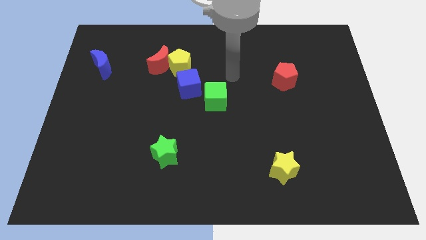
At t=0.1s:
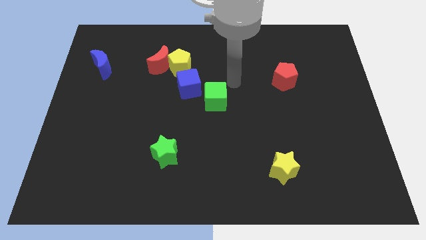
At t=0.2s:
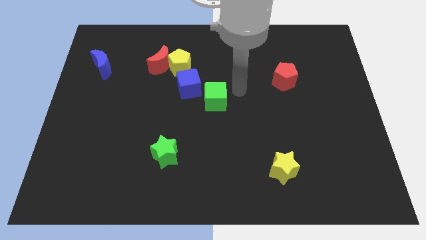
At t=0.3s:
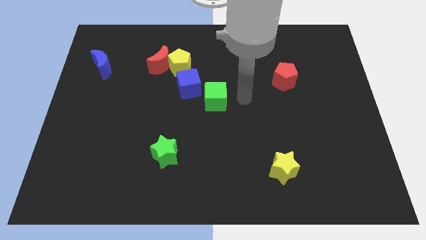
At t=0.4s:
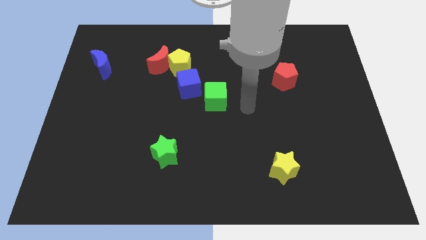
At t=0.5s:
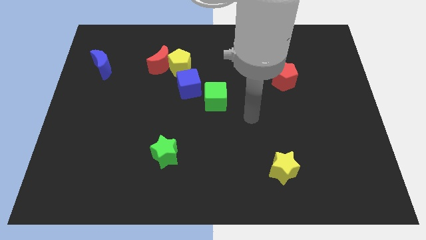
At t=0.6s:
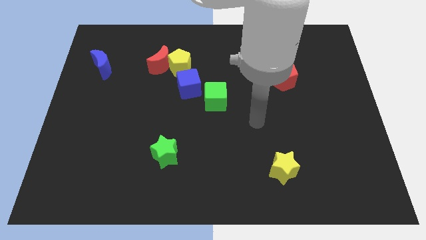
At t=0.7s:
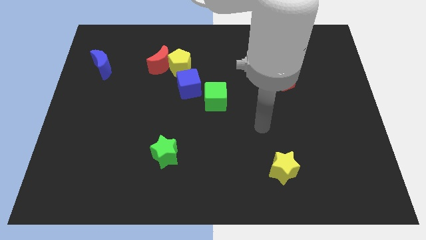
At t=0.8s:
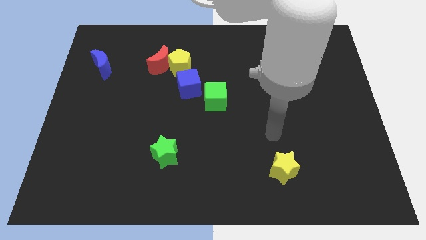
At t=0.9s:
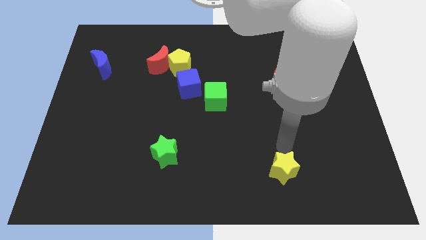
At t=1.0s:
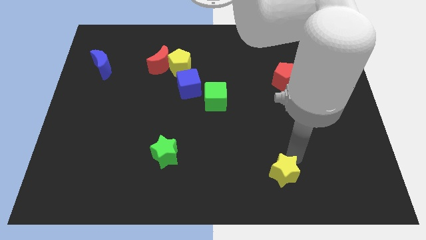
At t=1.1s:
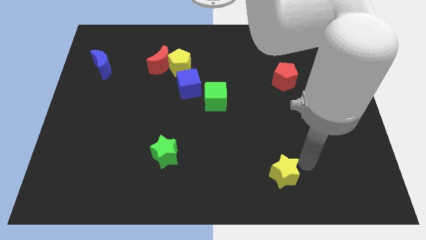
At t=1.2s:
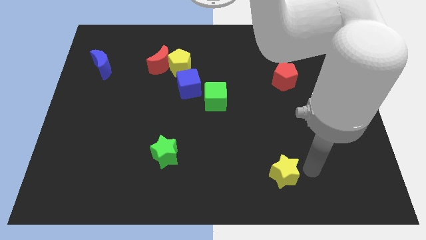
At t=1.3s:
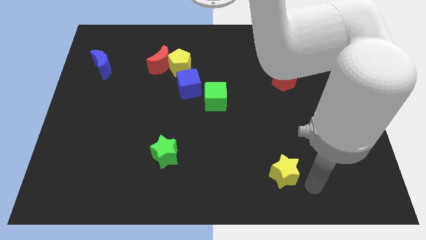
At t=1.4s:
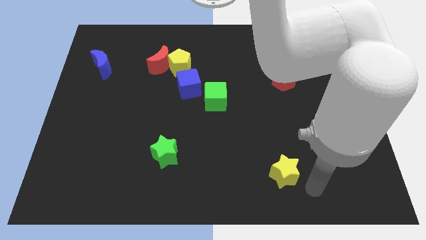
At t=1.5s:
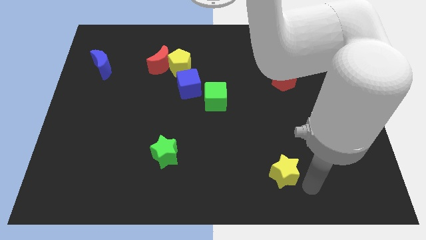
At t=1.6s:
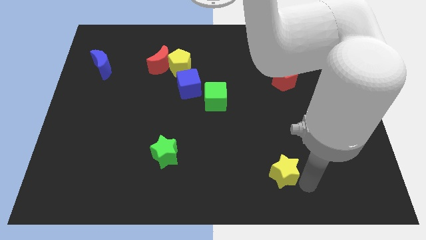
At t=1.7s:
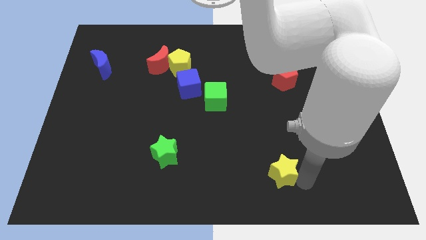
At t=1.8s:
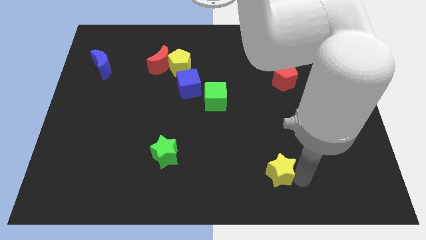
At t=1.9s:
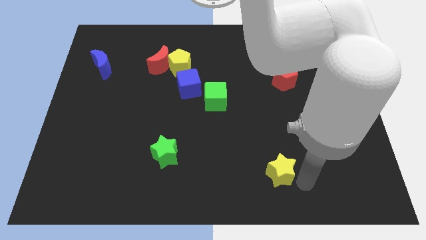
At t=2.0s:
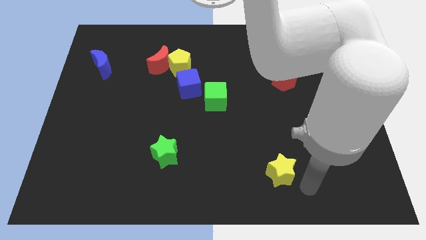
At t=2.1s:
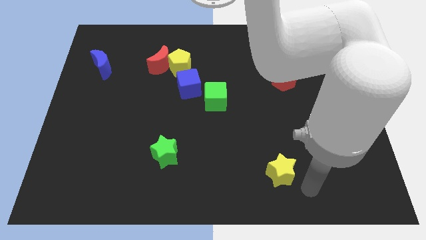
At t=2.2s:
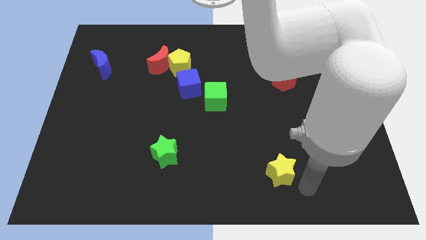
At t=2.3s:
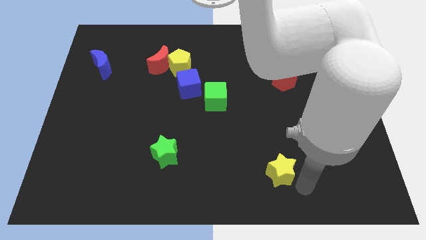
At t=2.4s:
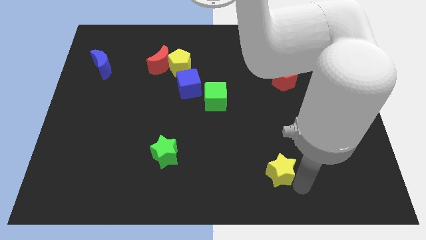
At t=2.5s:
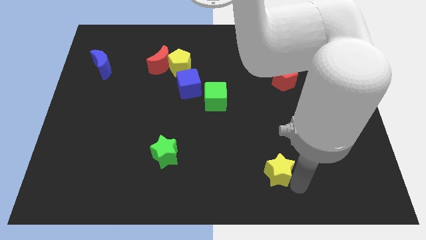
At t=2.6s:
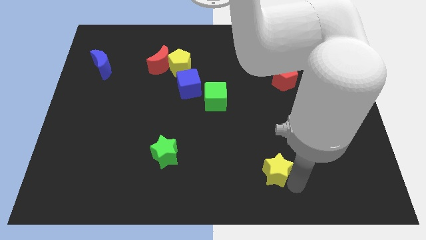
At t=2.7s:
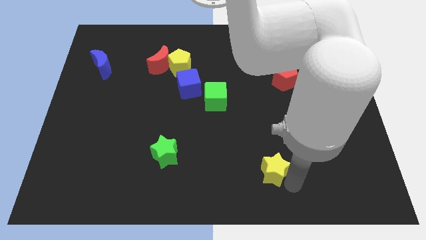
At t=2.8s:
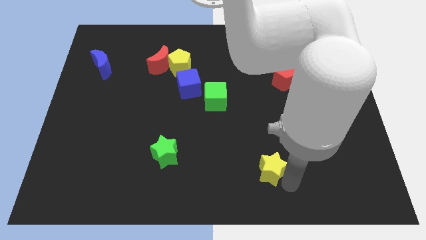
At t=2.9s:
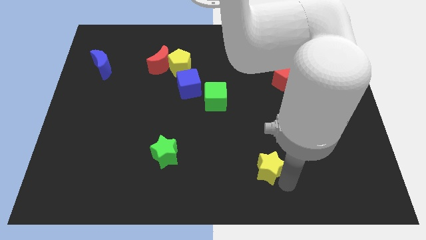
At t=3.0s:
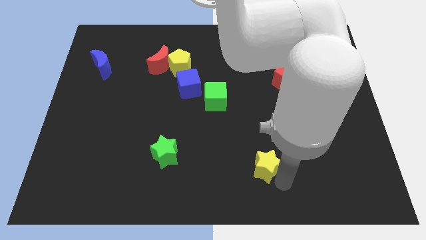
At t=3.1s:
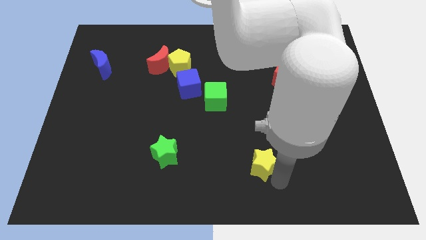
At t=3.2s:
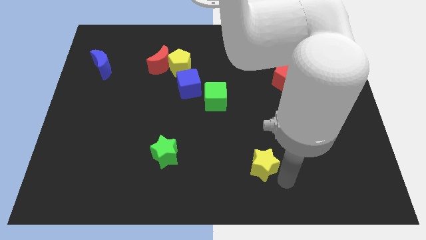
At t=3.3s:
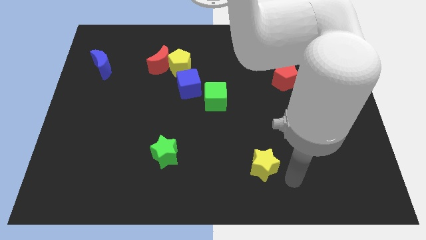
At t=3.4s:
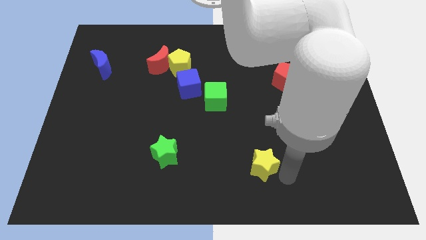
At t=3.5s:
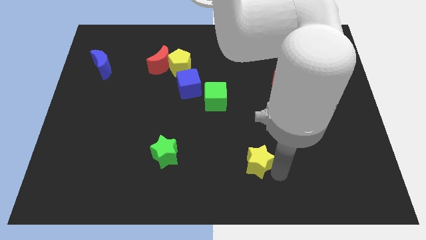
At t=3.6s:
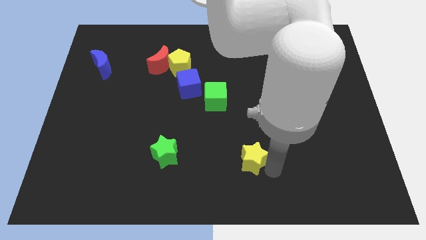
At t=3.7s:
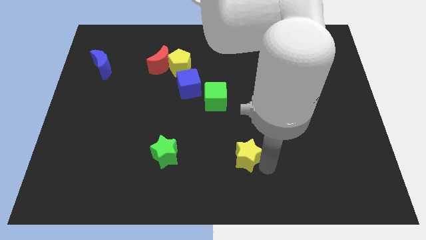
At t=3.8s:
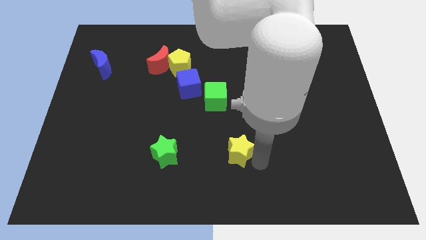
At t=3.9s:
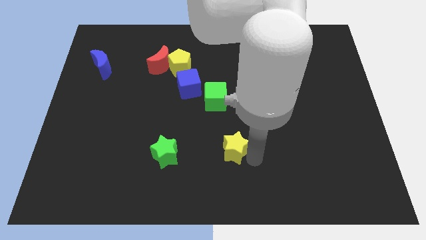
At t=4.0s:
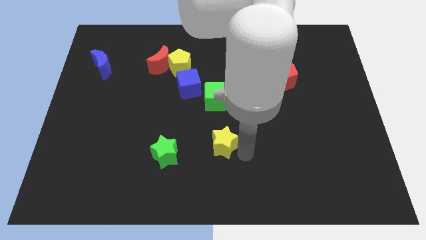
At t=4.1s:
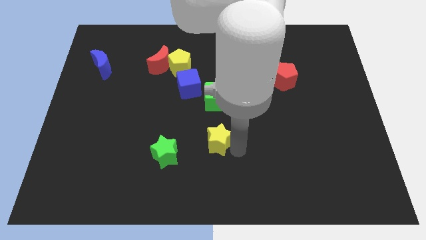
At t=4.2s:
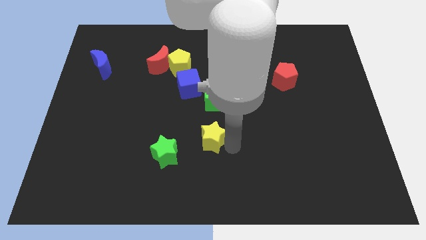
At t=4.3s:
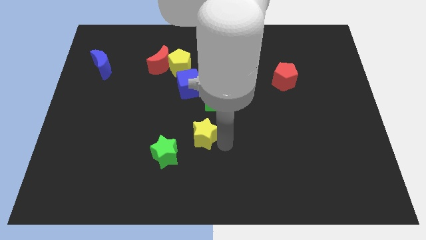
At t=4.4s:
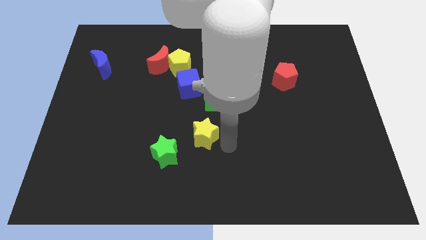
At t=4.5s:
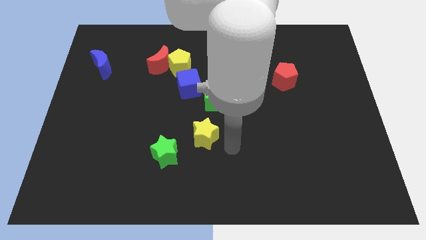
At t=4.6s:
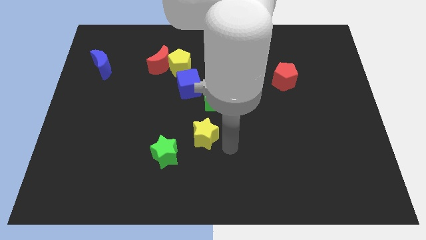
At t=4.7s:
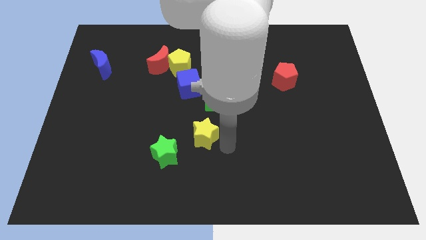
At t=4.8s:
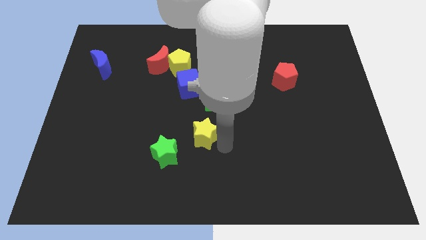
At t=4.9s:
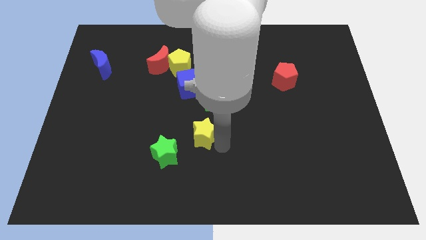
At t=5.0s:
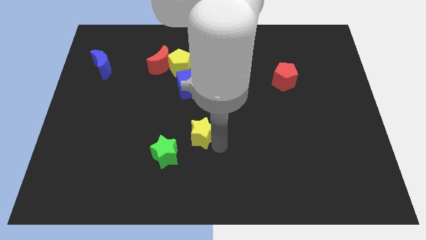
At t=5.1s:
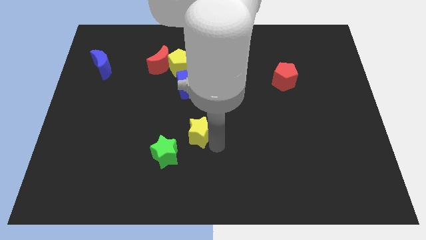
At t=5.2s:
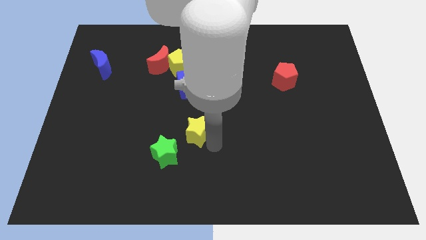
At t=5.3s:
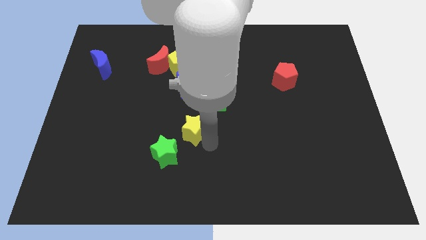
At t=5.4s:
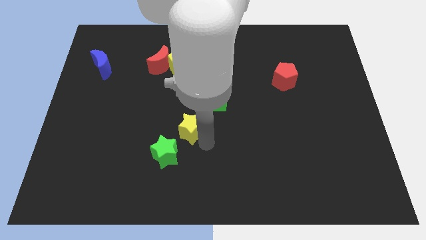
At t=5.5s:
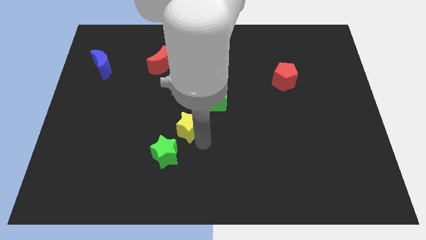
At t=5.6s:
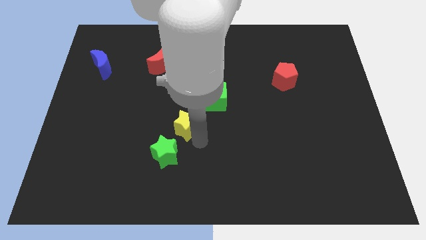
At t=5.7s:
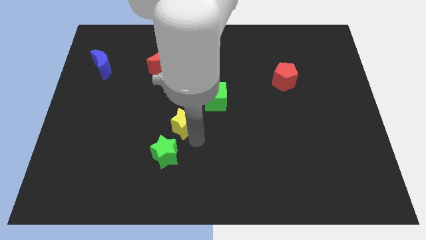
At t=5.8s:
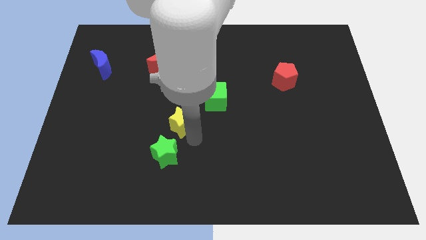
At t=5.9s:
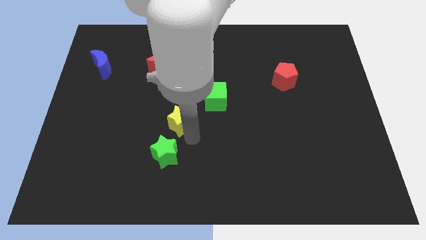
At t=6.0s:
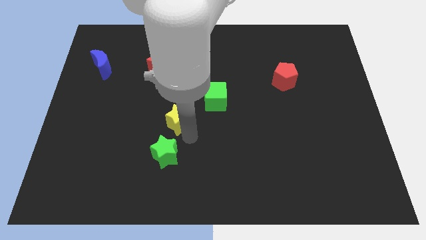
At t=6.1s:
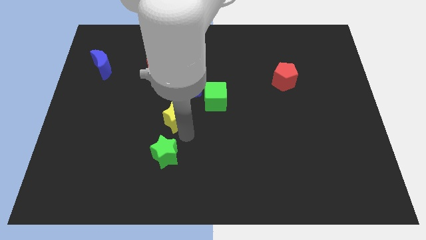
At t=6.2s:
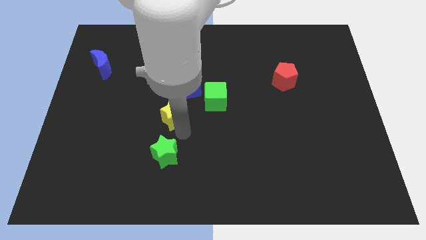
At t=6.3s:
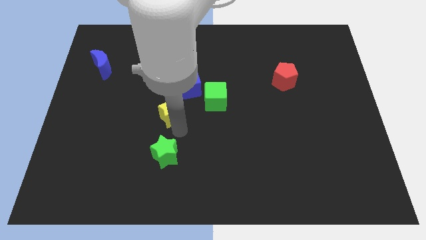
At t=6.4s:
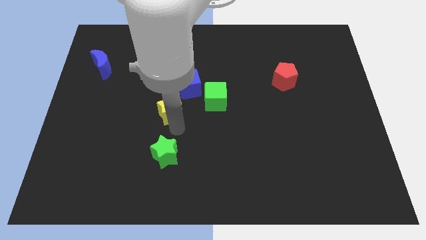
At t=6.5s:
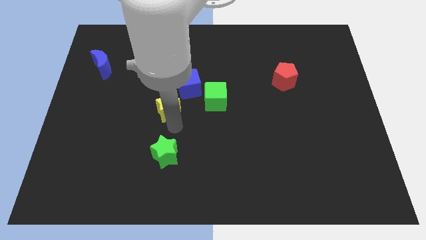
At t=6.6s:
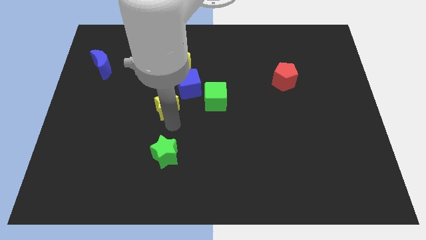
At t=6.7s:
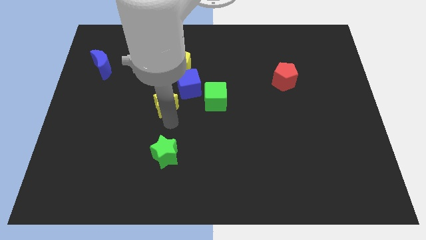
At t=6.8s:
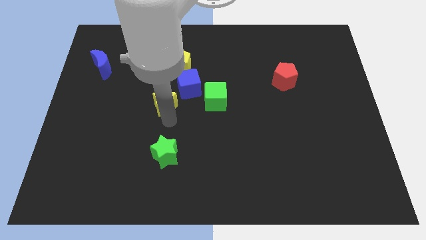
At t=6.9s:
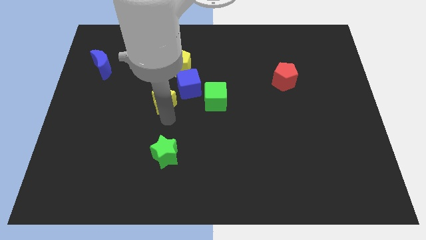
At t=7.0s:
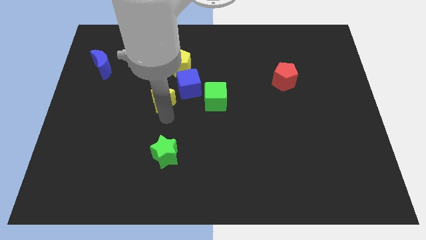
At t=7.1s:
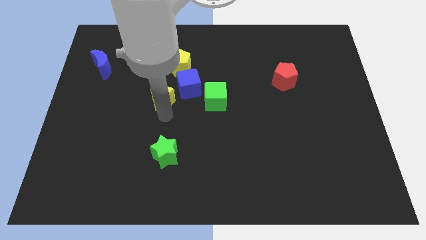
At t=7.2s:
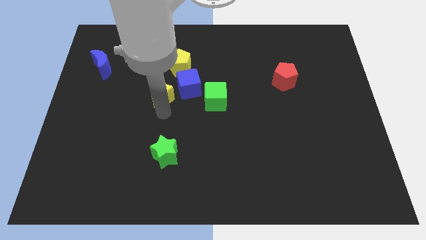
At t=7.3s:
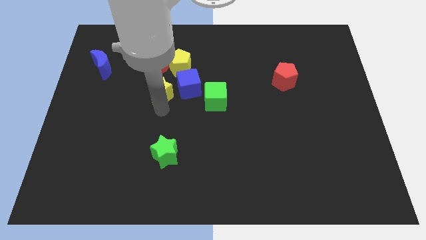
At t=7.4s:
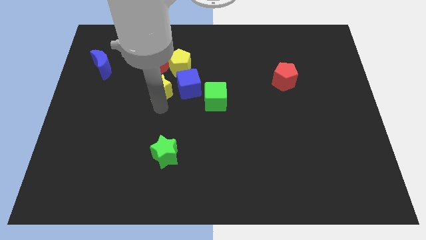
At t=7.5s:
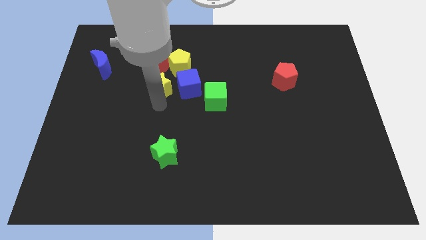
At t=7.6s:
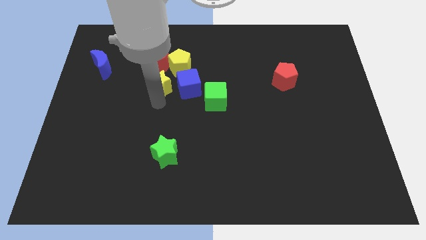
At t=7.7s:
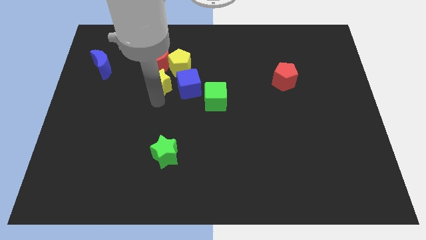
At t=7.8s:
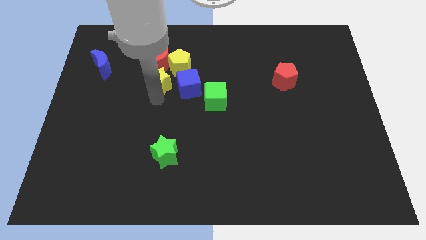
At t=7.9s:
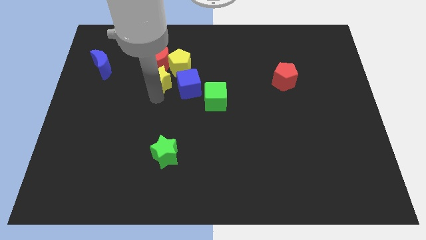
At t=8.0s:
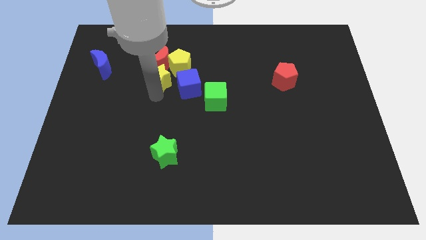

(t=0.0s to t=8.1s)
put the yellow star next to the red moon
